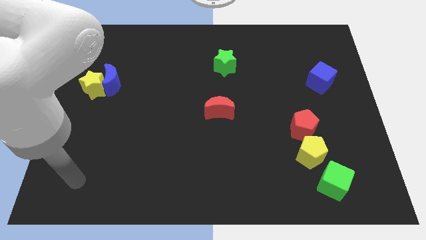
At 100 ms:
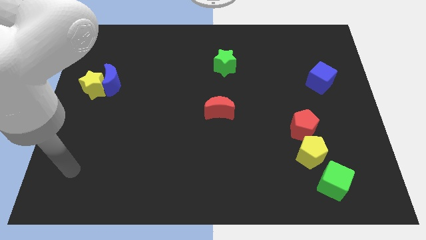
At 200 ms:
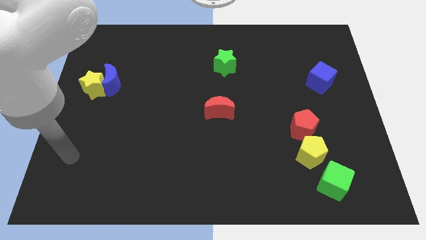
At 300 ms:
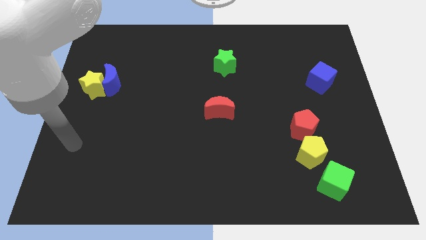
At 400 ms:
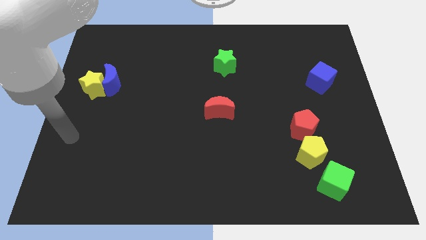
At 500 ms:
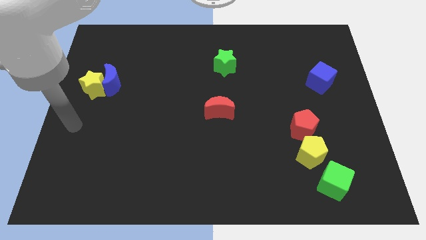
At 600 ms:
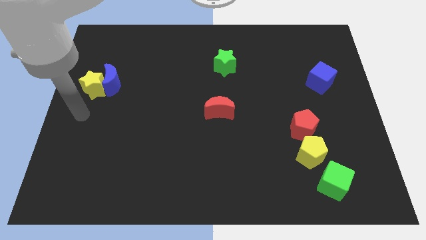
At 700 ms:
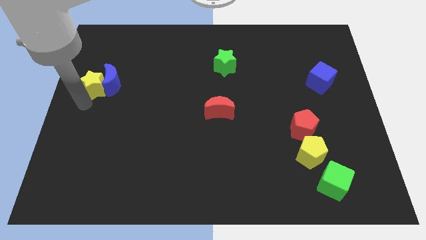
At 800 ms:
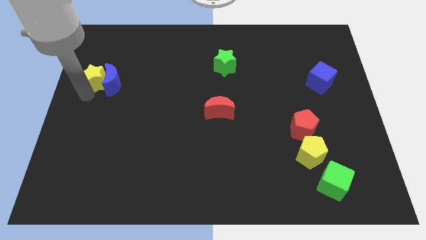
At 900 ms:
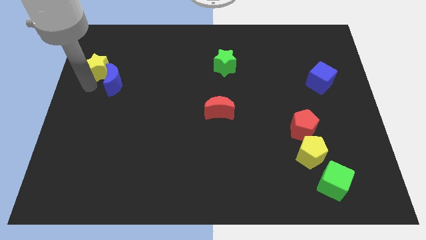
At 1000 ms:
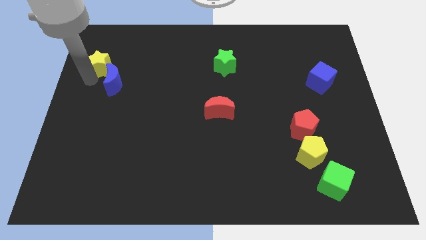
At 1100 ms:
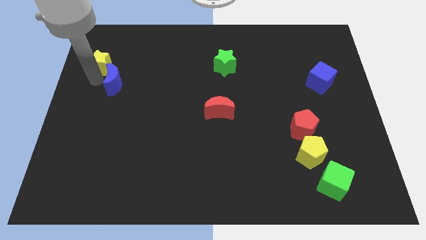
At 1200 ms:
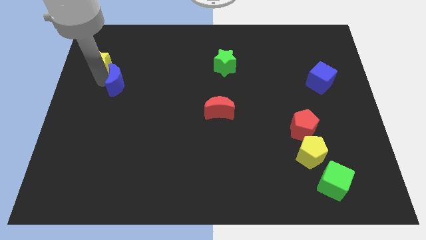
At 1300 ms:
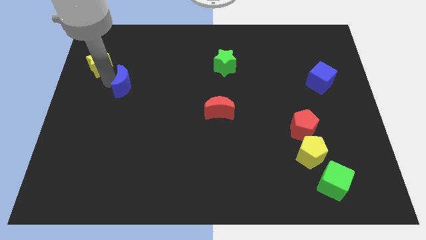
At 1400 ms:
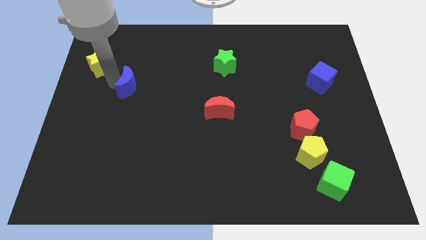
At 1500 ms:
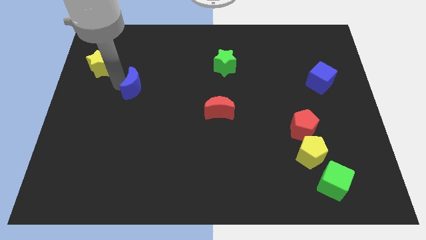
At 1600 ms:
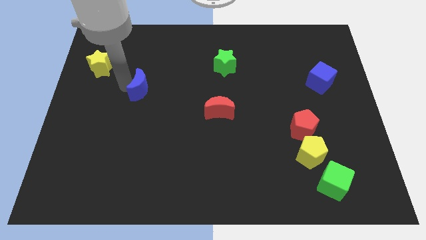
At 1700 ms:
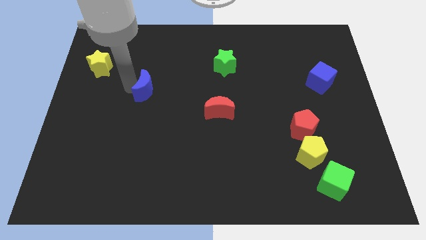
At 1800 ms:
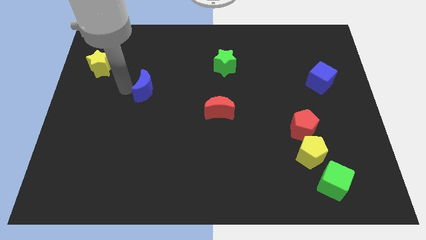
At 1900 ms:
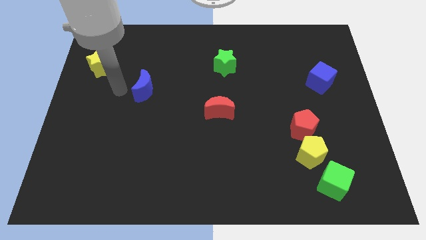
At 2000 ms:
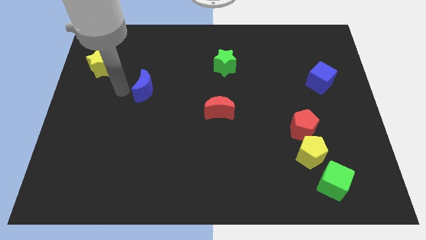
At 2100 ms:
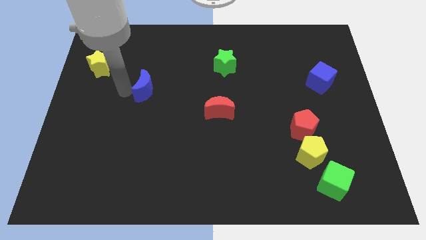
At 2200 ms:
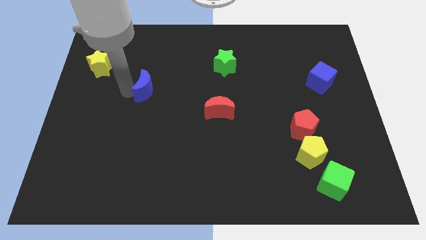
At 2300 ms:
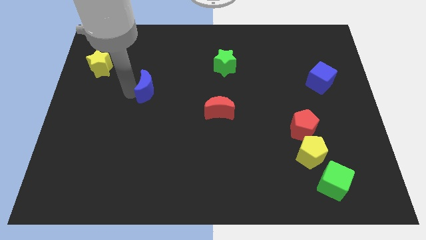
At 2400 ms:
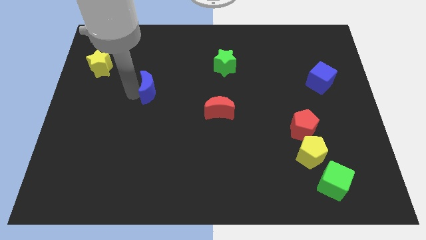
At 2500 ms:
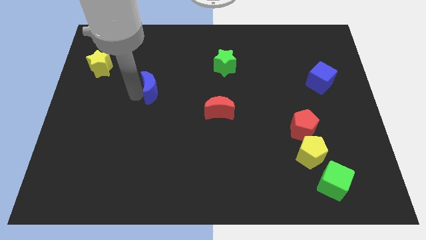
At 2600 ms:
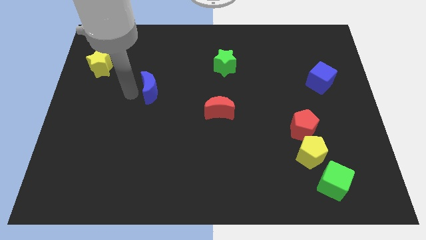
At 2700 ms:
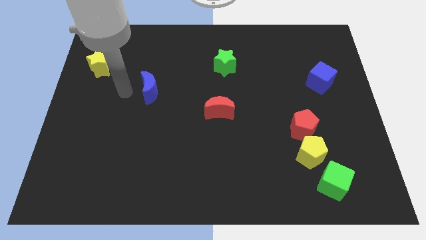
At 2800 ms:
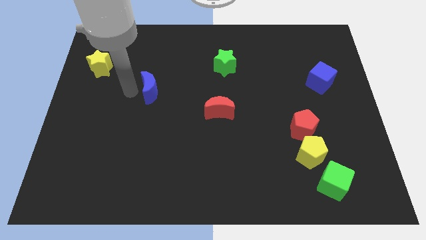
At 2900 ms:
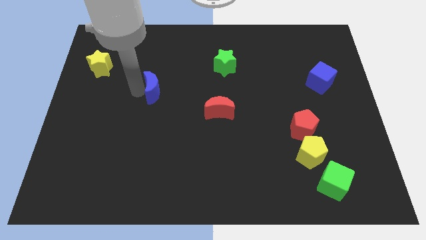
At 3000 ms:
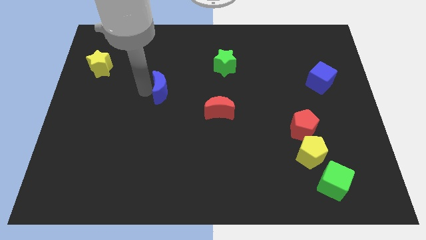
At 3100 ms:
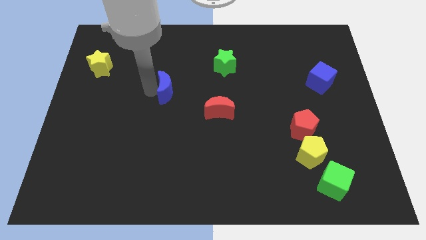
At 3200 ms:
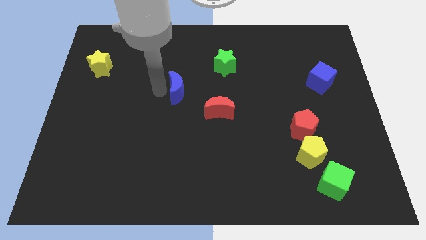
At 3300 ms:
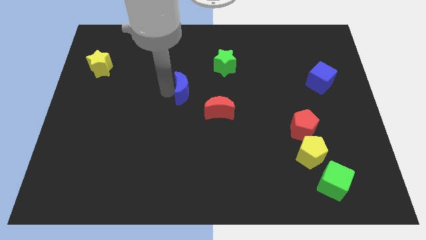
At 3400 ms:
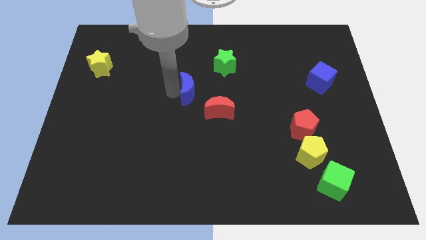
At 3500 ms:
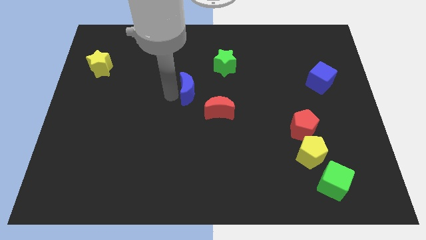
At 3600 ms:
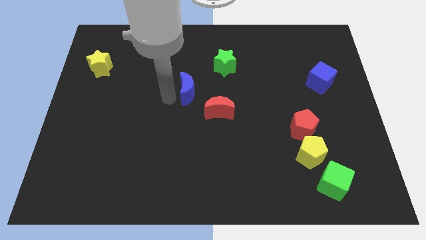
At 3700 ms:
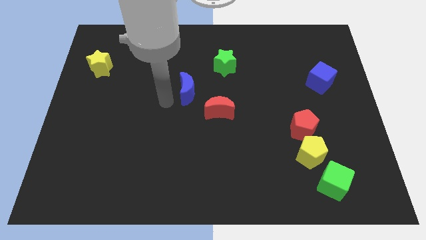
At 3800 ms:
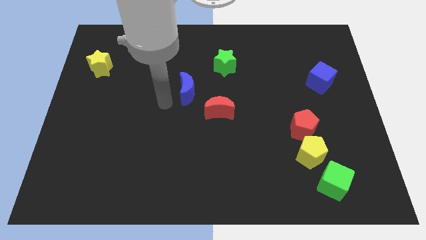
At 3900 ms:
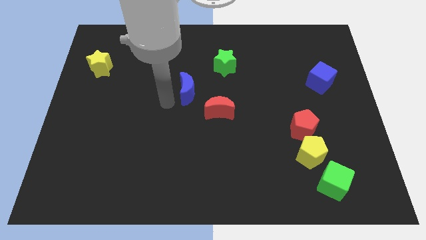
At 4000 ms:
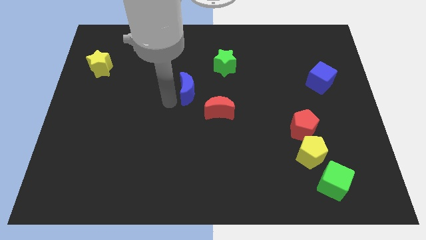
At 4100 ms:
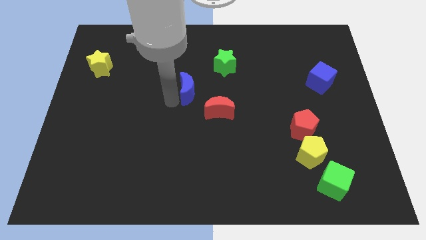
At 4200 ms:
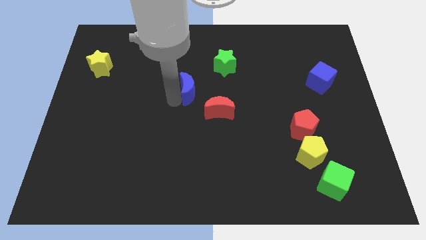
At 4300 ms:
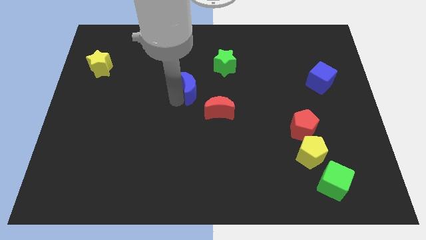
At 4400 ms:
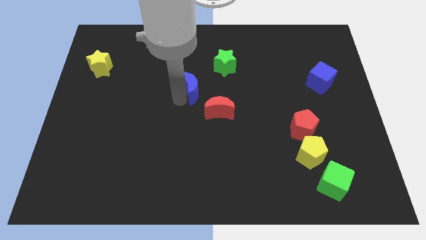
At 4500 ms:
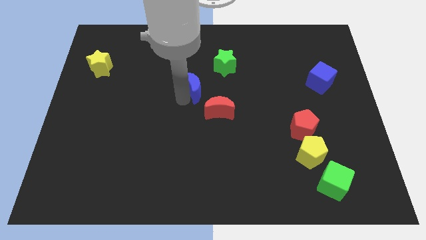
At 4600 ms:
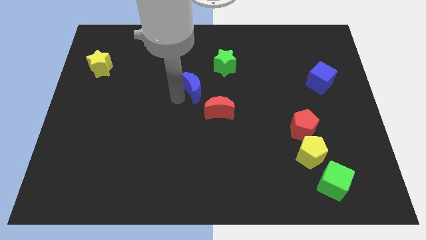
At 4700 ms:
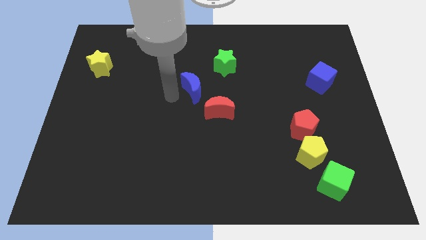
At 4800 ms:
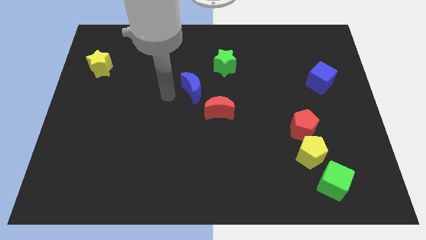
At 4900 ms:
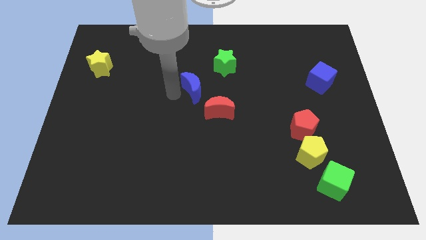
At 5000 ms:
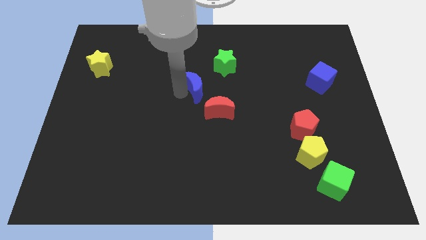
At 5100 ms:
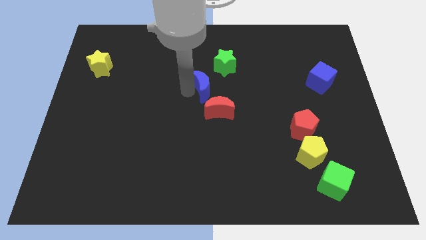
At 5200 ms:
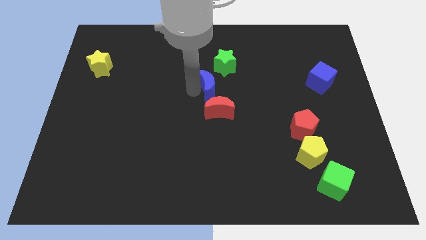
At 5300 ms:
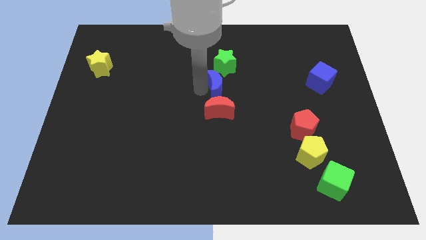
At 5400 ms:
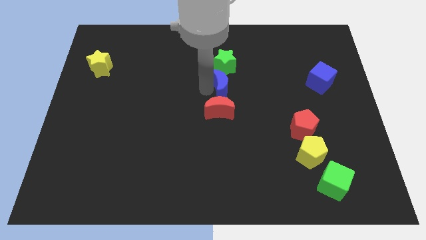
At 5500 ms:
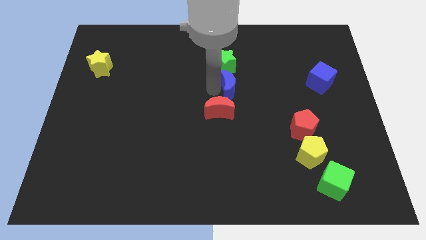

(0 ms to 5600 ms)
move the blue moon to the bottom right side of the green star

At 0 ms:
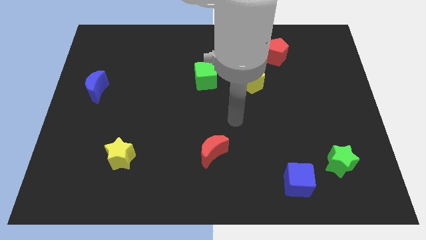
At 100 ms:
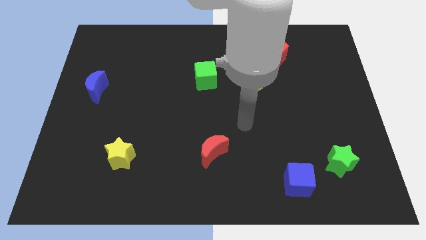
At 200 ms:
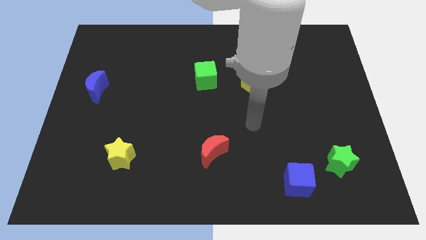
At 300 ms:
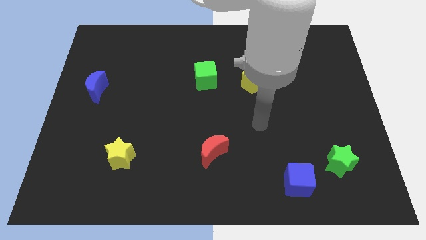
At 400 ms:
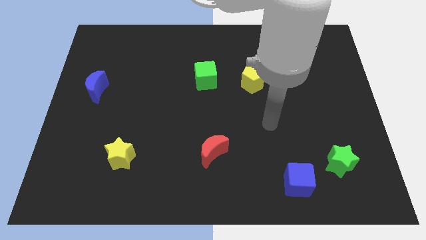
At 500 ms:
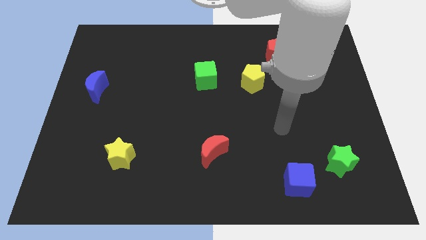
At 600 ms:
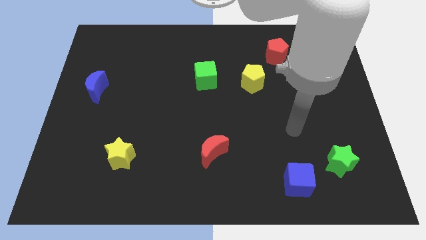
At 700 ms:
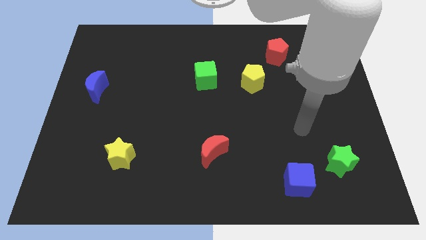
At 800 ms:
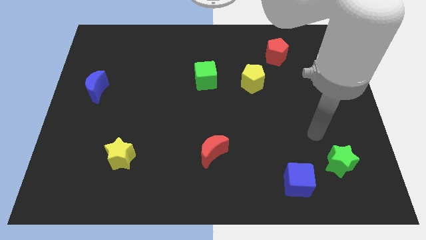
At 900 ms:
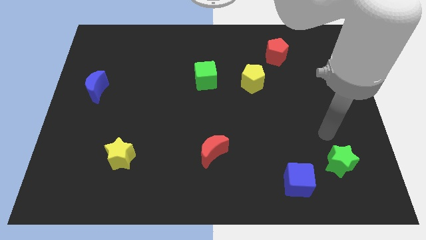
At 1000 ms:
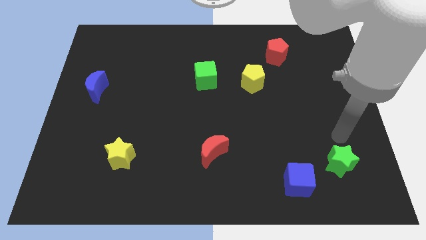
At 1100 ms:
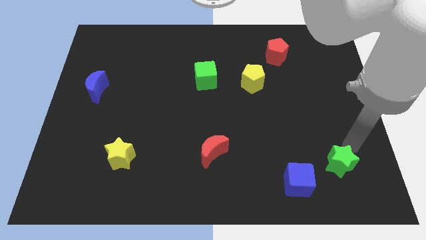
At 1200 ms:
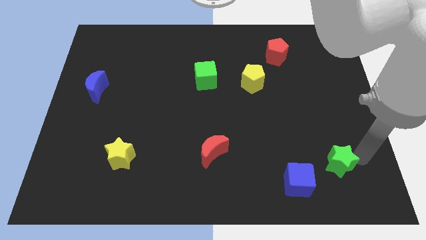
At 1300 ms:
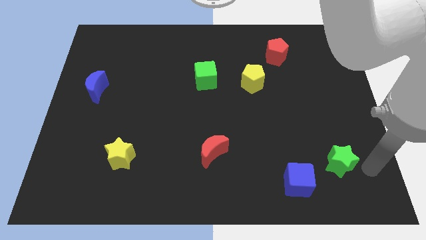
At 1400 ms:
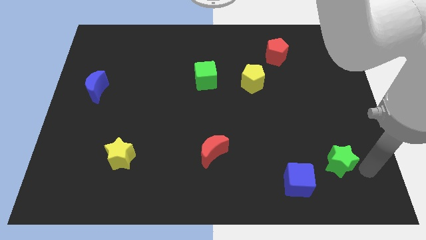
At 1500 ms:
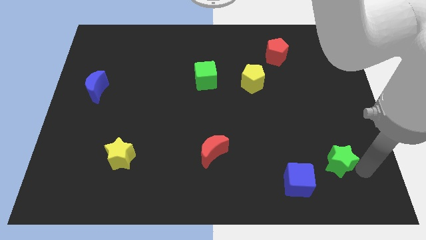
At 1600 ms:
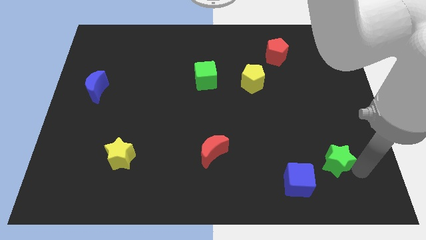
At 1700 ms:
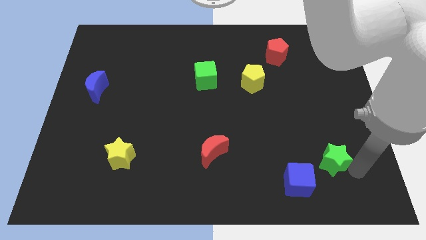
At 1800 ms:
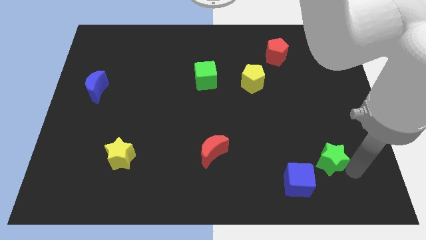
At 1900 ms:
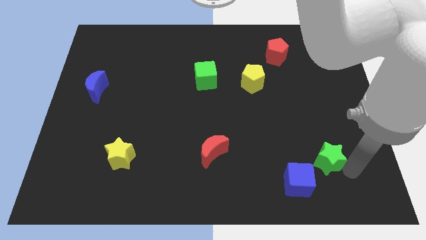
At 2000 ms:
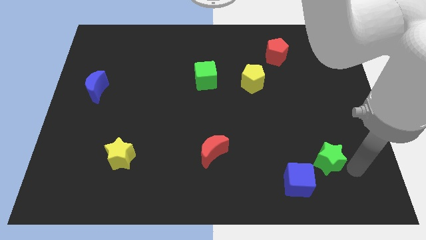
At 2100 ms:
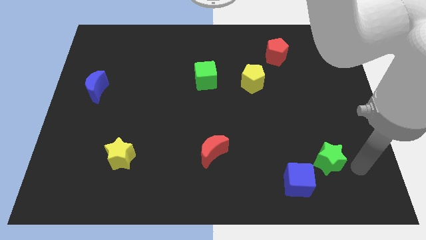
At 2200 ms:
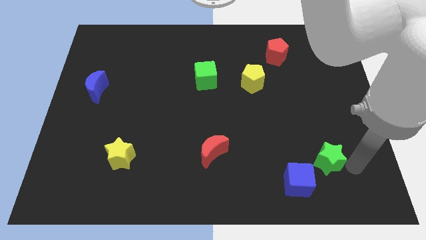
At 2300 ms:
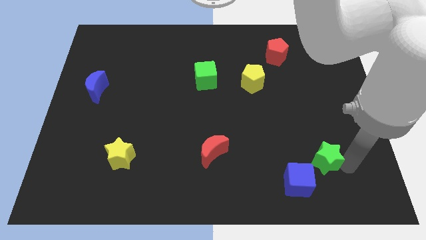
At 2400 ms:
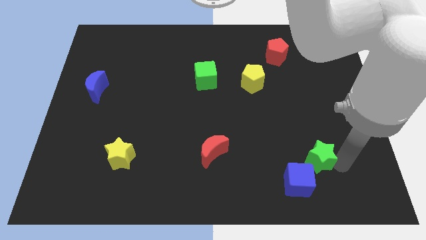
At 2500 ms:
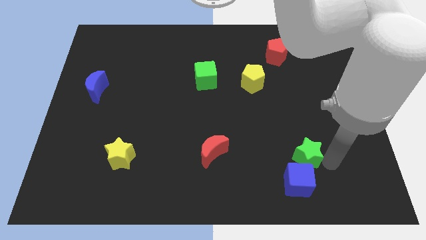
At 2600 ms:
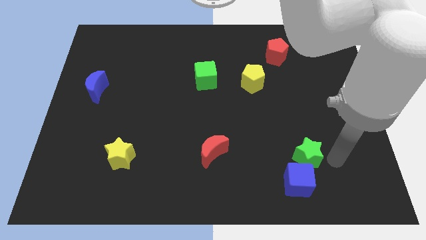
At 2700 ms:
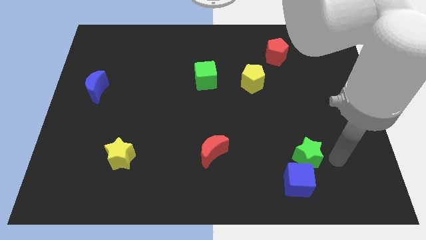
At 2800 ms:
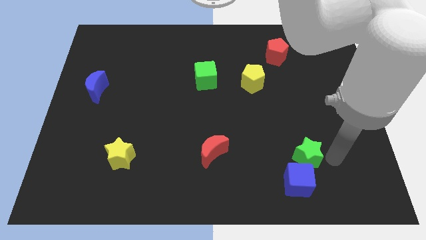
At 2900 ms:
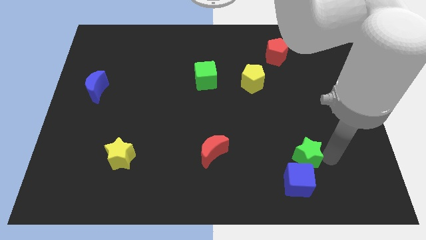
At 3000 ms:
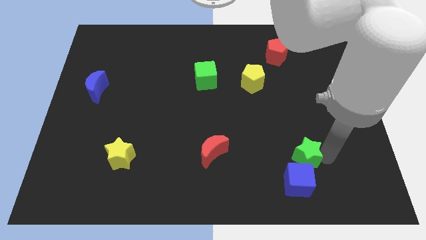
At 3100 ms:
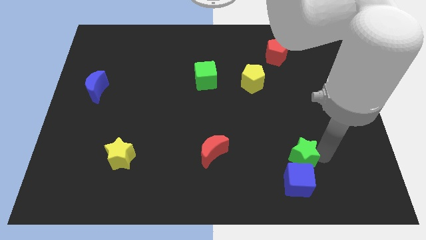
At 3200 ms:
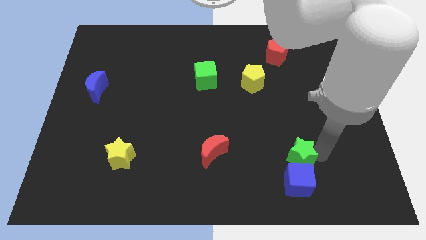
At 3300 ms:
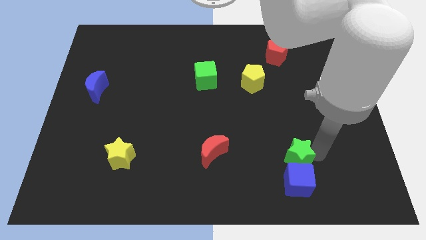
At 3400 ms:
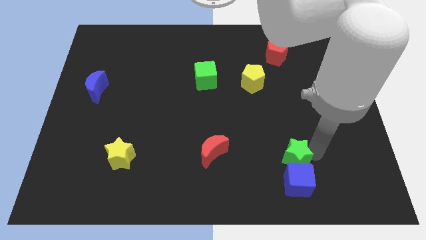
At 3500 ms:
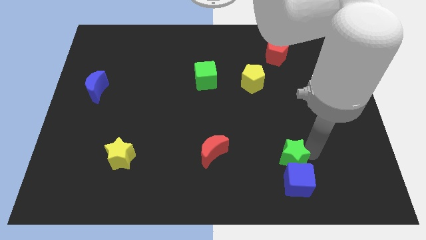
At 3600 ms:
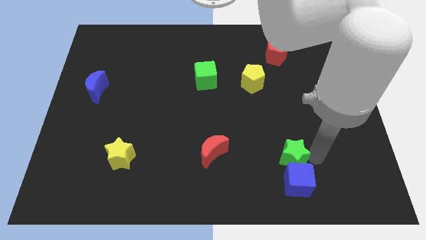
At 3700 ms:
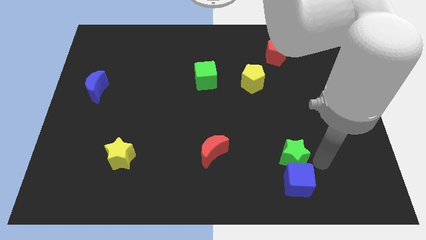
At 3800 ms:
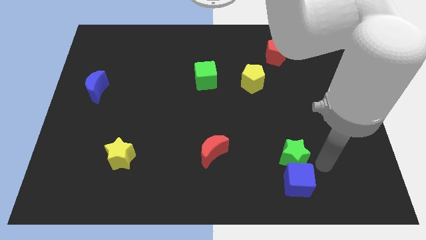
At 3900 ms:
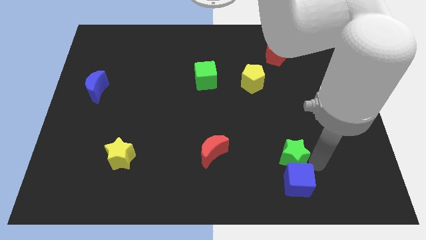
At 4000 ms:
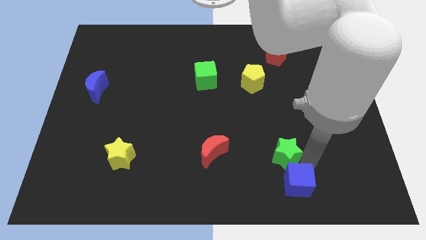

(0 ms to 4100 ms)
move the green star right of the red moon
